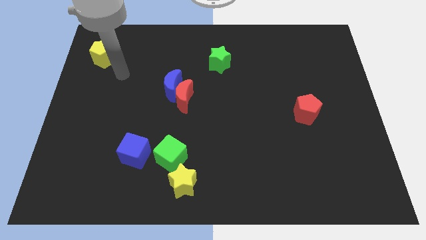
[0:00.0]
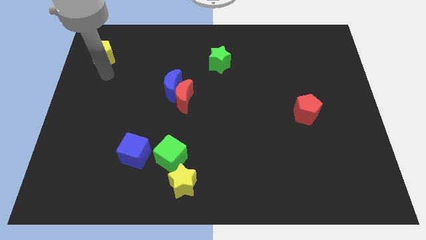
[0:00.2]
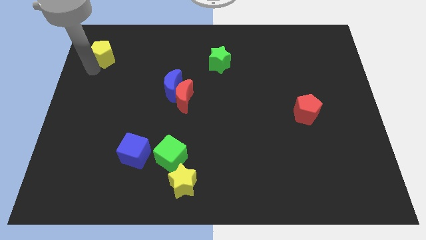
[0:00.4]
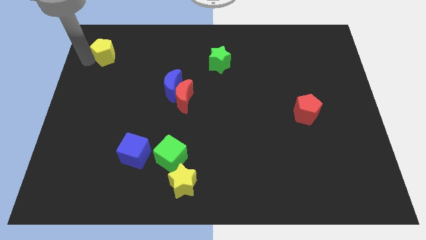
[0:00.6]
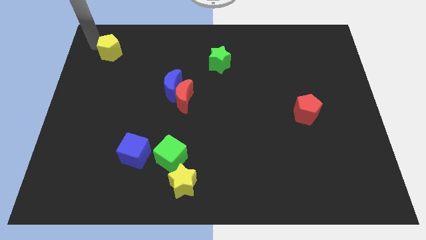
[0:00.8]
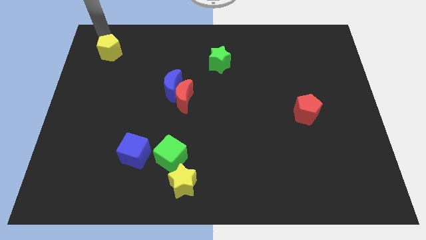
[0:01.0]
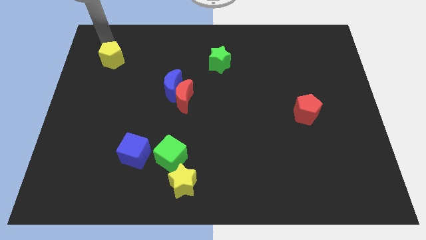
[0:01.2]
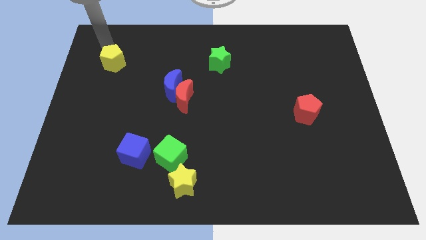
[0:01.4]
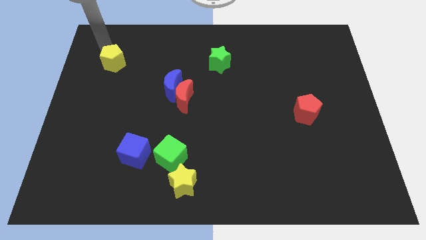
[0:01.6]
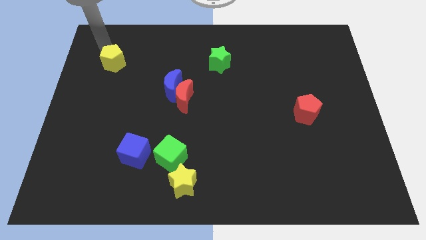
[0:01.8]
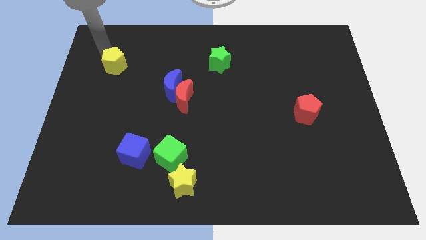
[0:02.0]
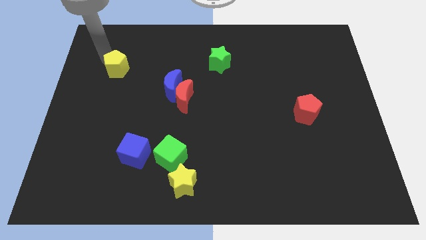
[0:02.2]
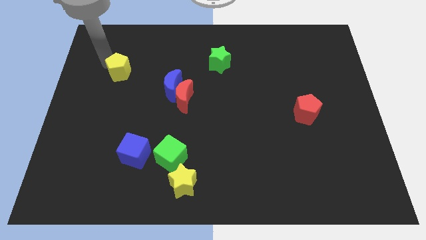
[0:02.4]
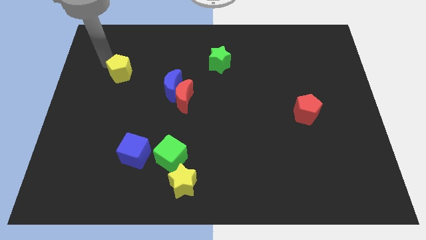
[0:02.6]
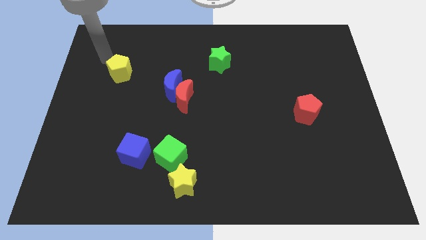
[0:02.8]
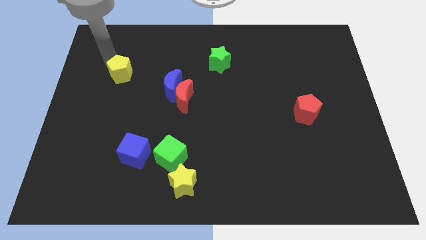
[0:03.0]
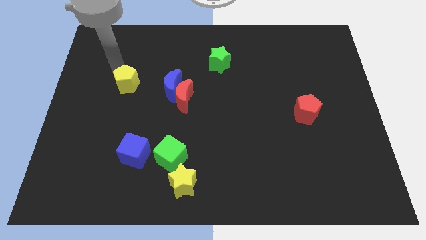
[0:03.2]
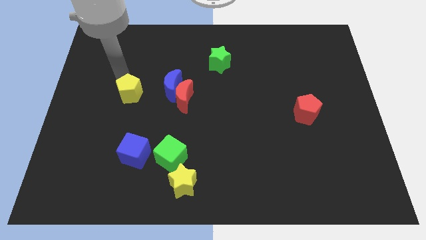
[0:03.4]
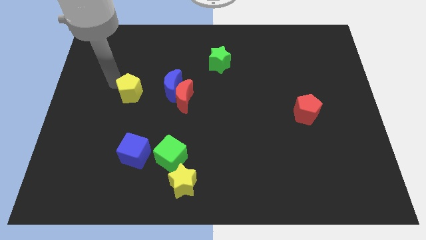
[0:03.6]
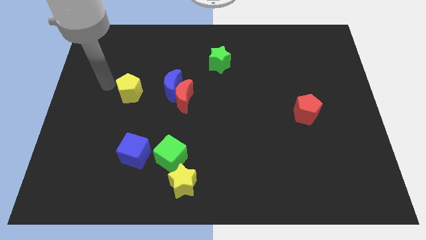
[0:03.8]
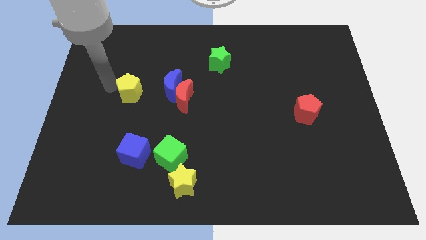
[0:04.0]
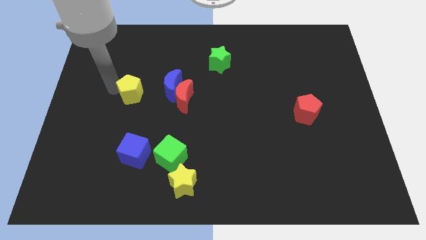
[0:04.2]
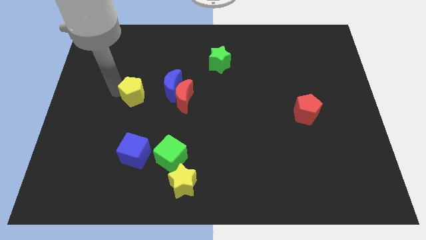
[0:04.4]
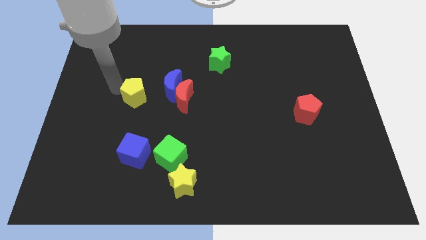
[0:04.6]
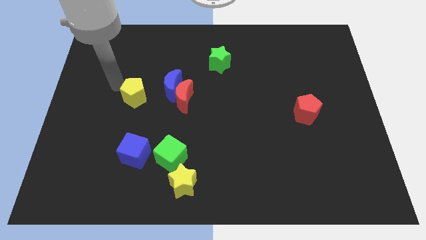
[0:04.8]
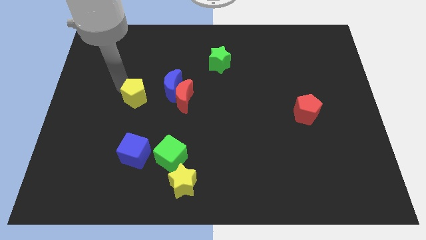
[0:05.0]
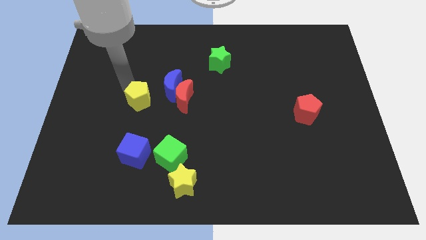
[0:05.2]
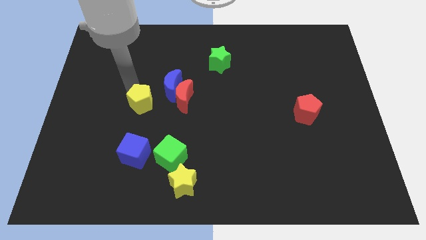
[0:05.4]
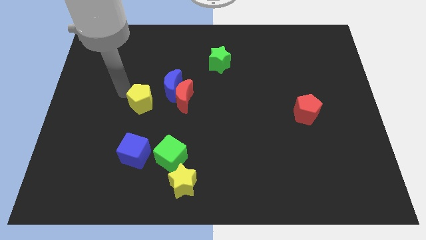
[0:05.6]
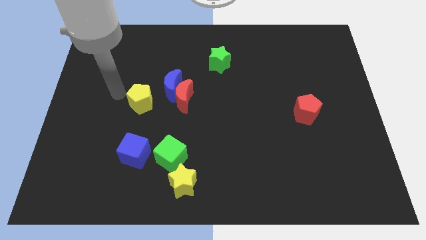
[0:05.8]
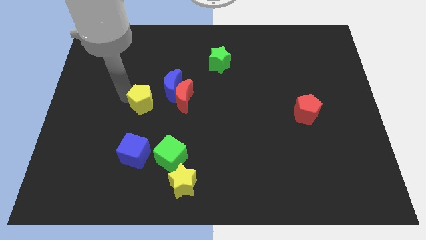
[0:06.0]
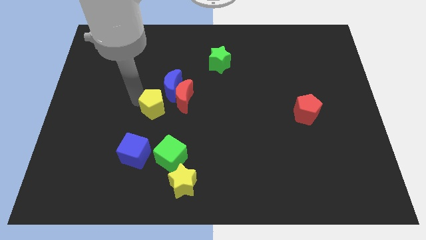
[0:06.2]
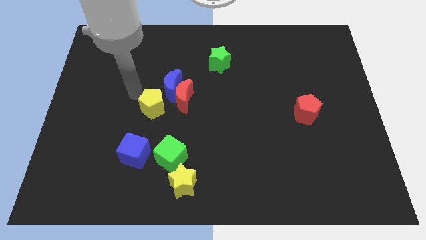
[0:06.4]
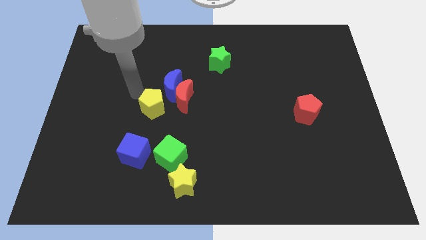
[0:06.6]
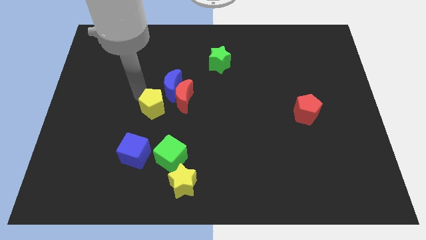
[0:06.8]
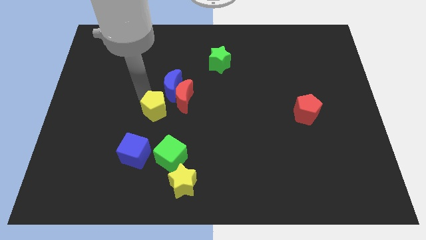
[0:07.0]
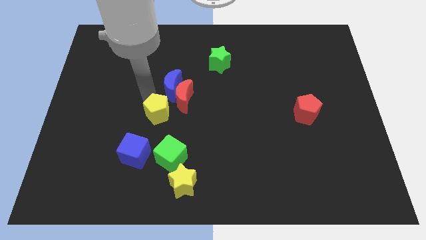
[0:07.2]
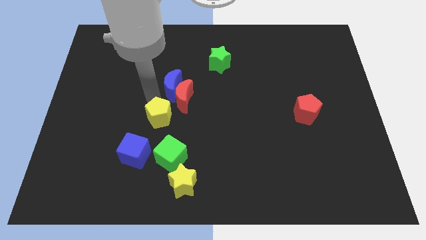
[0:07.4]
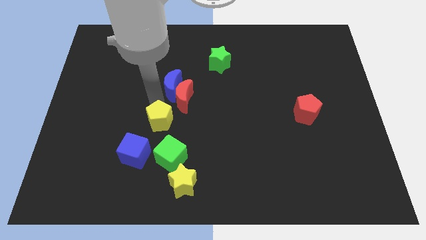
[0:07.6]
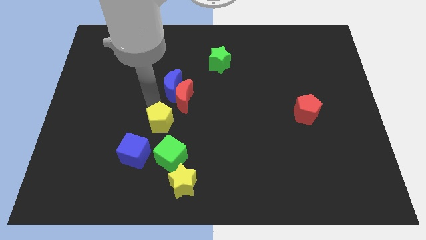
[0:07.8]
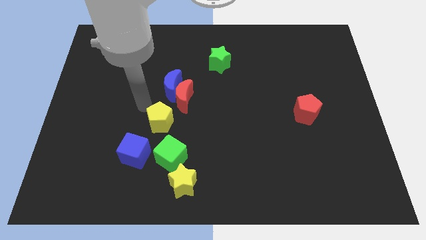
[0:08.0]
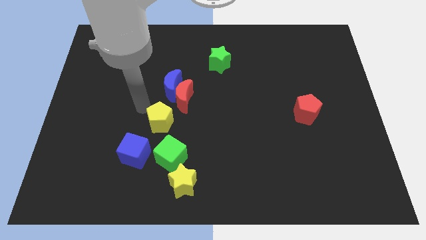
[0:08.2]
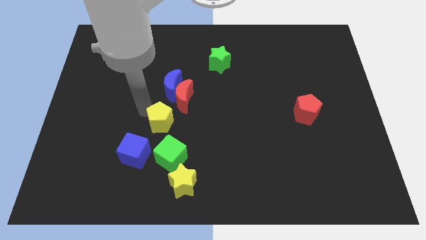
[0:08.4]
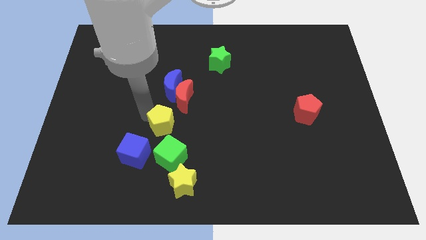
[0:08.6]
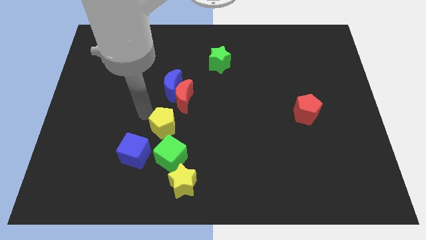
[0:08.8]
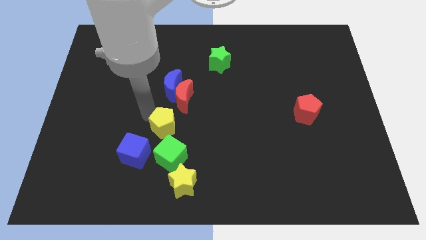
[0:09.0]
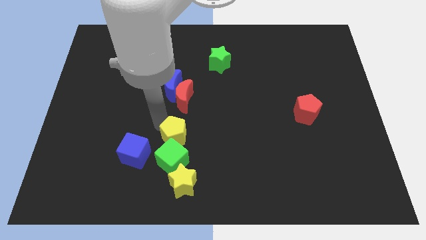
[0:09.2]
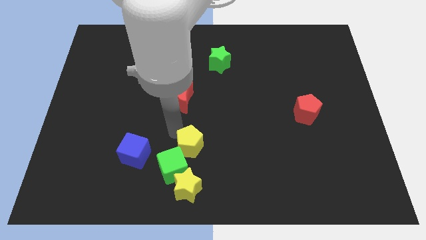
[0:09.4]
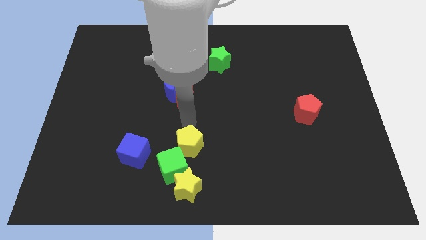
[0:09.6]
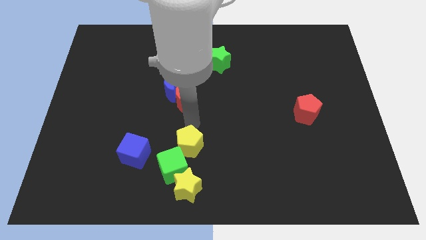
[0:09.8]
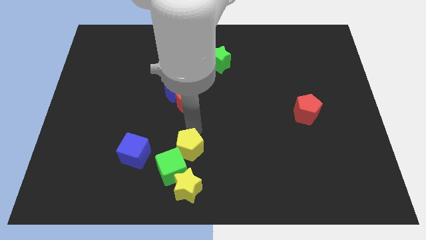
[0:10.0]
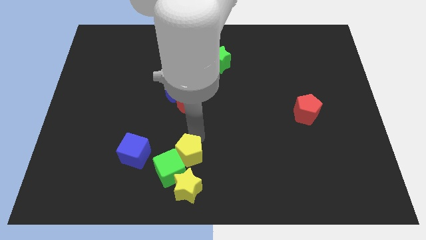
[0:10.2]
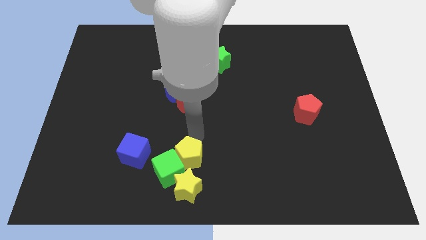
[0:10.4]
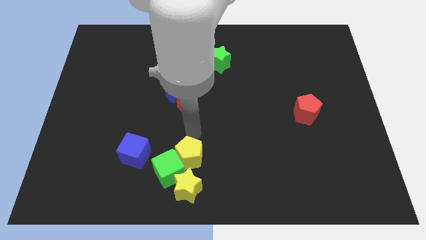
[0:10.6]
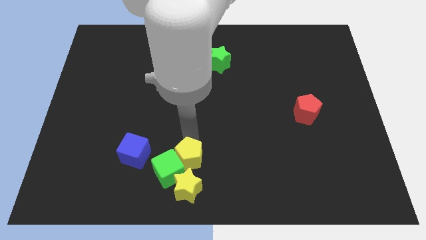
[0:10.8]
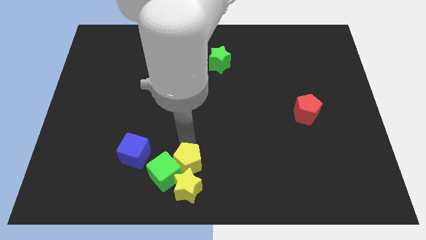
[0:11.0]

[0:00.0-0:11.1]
slide the yellow pentagon next to the yellow star

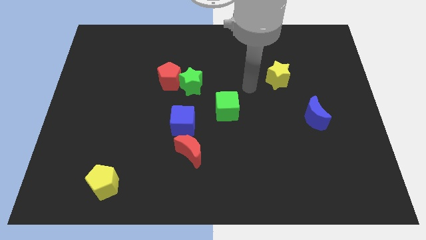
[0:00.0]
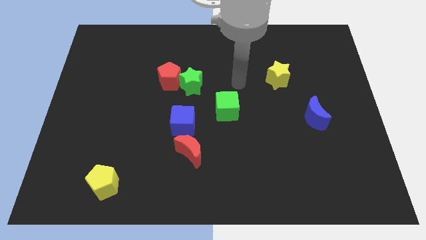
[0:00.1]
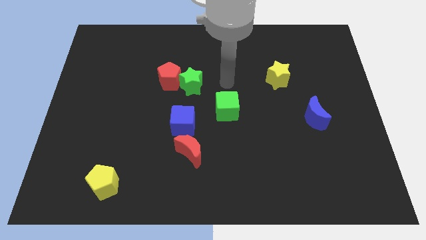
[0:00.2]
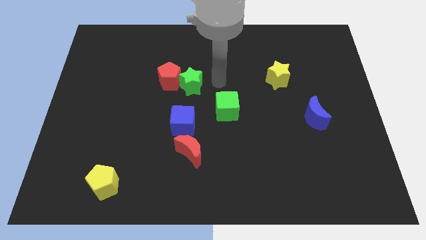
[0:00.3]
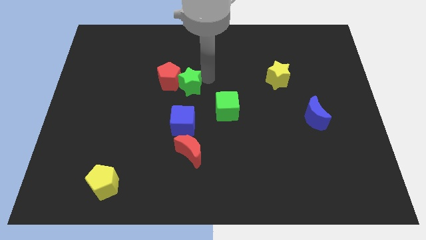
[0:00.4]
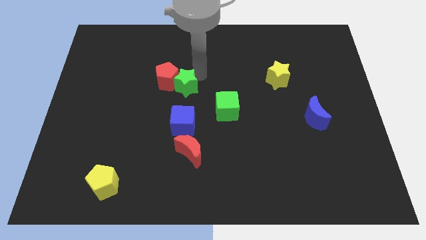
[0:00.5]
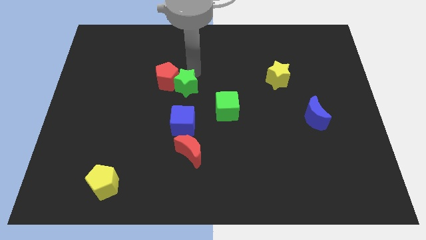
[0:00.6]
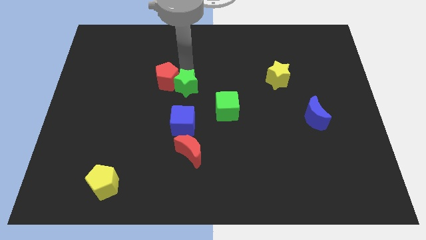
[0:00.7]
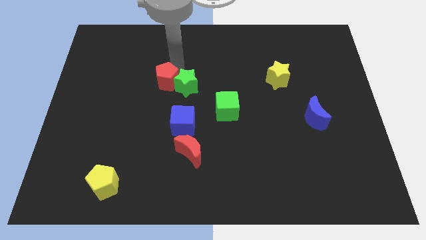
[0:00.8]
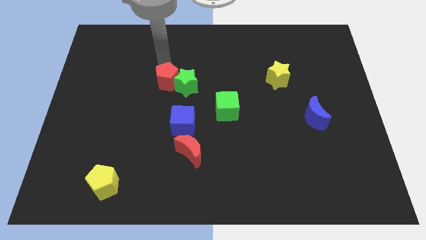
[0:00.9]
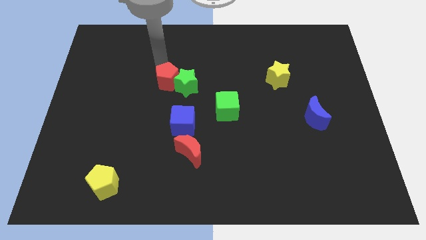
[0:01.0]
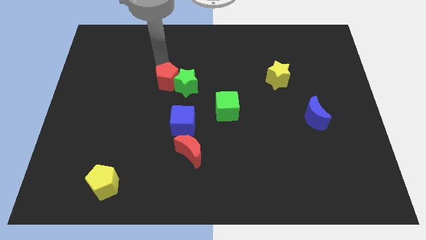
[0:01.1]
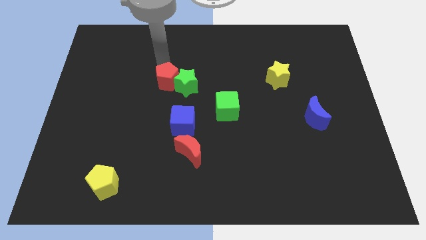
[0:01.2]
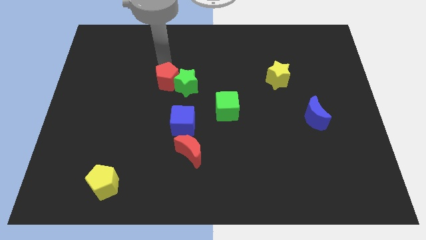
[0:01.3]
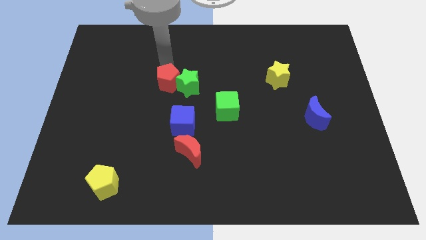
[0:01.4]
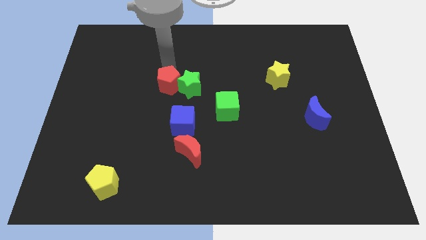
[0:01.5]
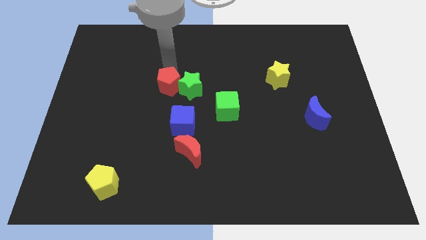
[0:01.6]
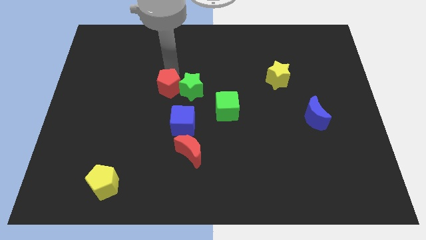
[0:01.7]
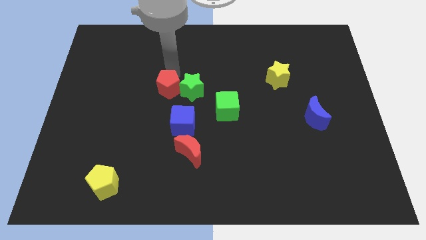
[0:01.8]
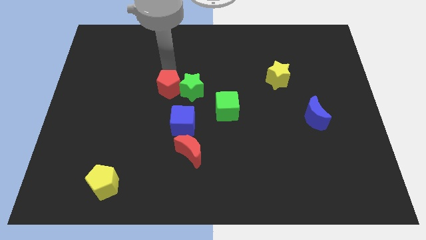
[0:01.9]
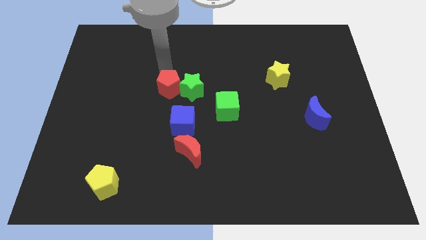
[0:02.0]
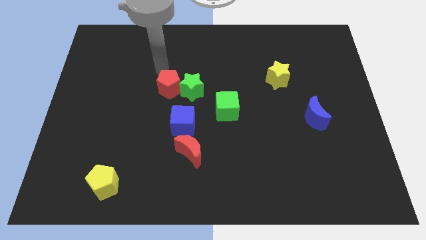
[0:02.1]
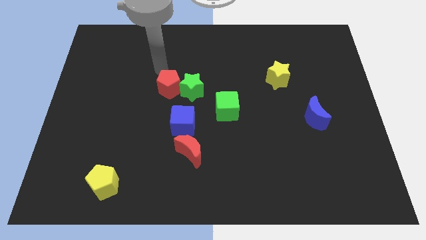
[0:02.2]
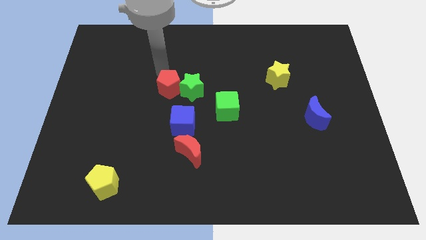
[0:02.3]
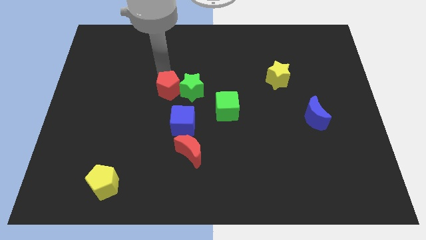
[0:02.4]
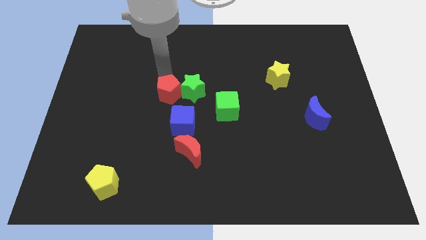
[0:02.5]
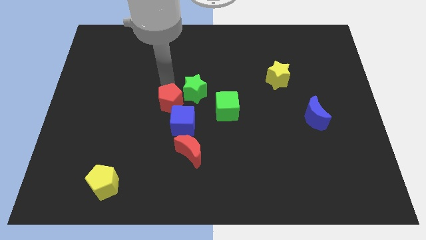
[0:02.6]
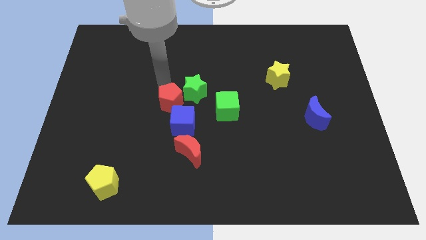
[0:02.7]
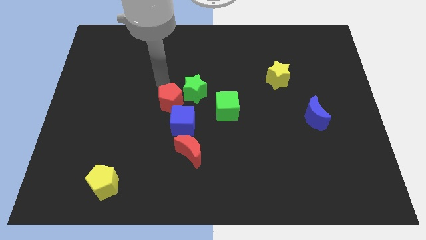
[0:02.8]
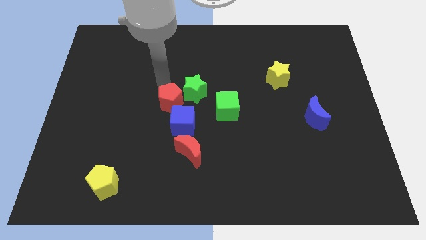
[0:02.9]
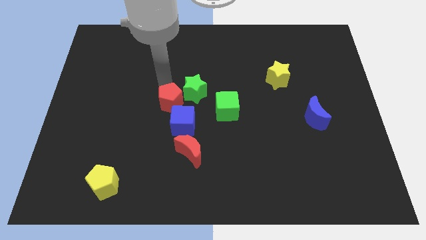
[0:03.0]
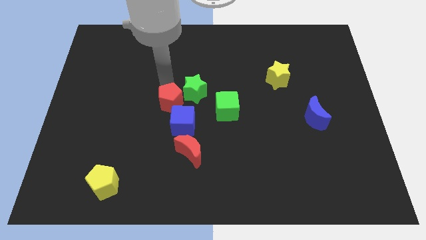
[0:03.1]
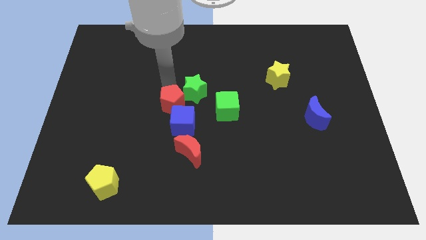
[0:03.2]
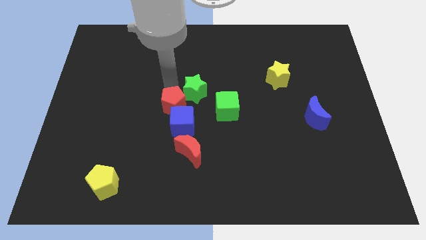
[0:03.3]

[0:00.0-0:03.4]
move the red pentagon towards the blue cube
